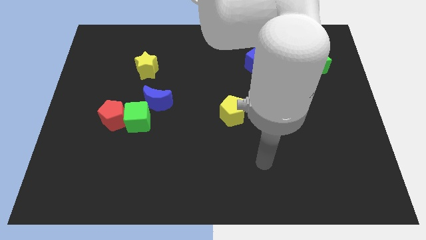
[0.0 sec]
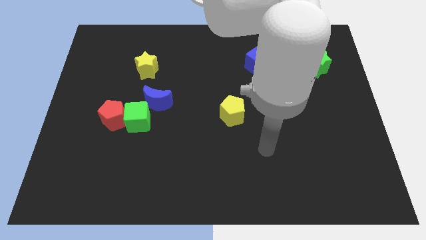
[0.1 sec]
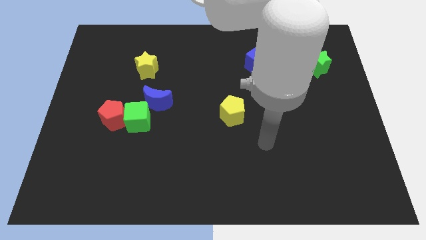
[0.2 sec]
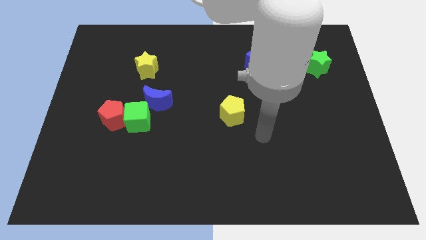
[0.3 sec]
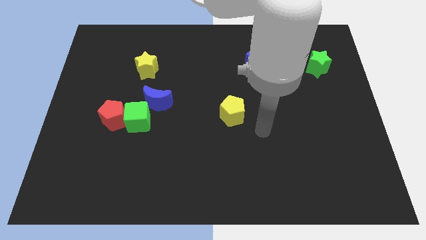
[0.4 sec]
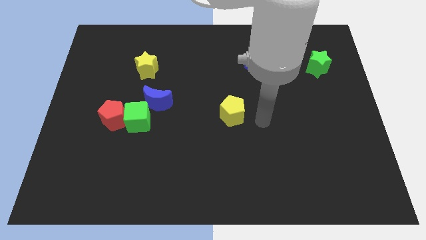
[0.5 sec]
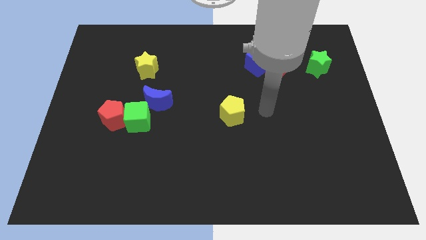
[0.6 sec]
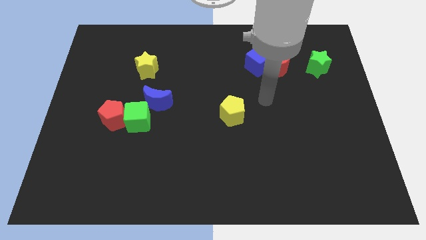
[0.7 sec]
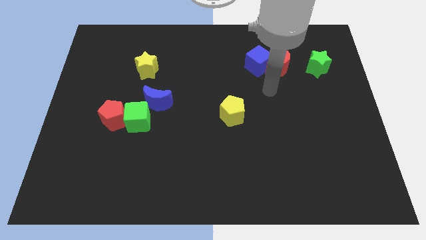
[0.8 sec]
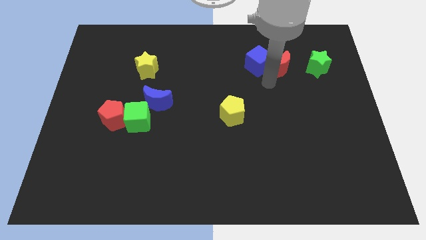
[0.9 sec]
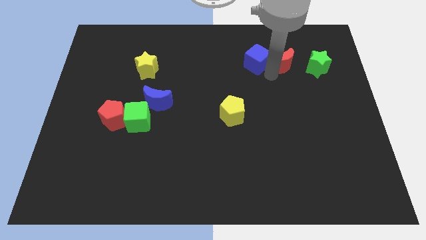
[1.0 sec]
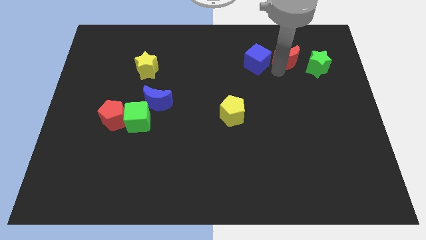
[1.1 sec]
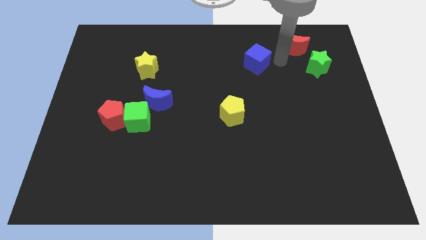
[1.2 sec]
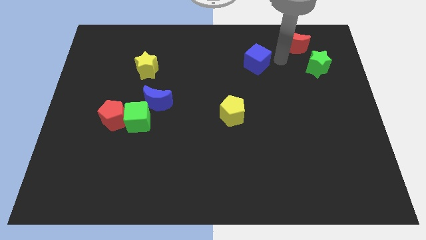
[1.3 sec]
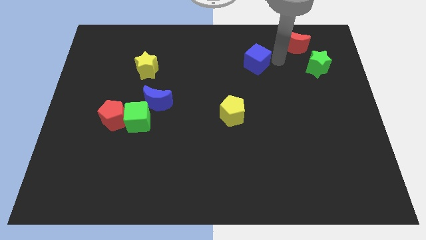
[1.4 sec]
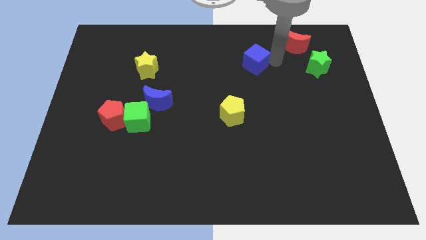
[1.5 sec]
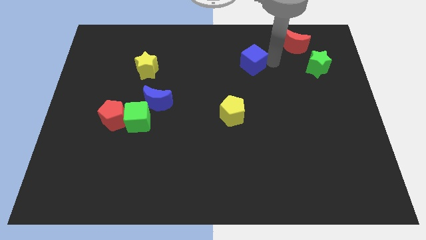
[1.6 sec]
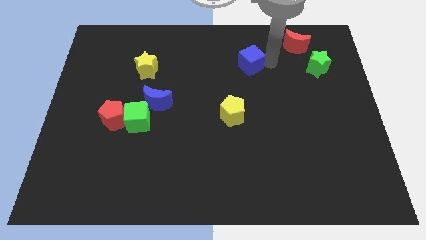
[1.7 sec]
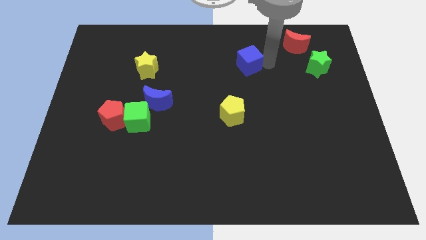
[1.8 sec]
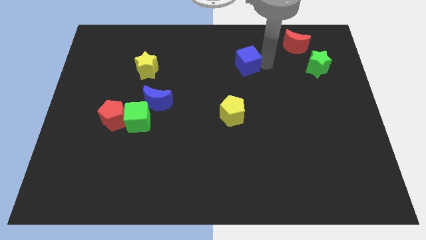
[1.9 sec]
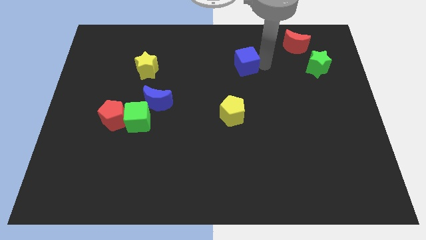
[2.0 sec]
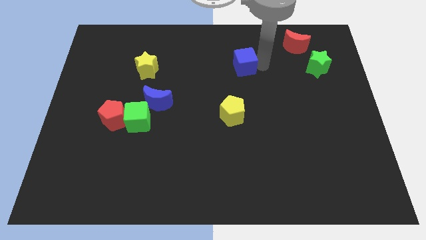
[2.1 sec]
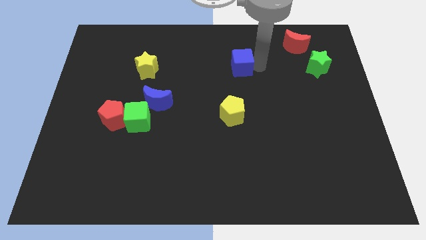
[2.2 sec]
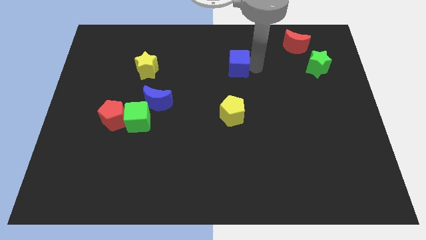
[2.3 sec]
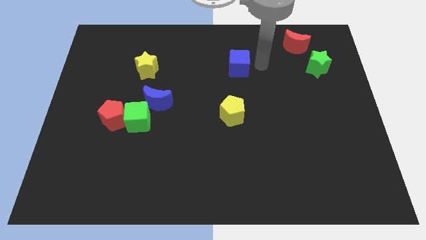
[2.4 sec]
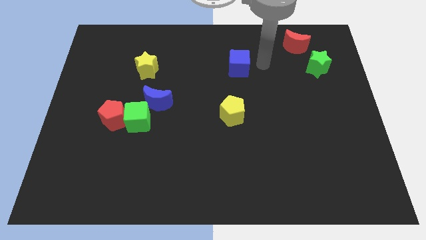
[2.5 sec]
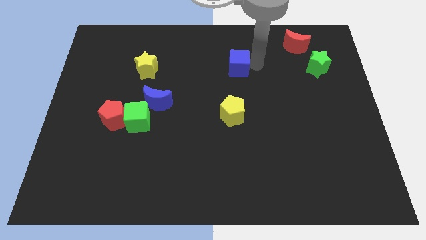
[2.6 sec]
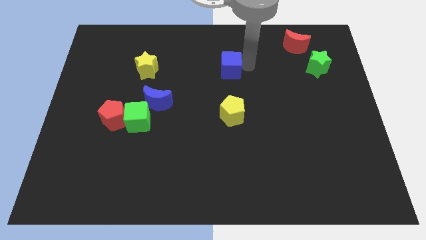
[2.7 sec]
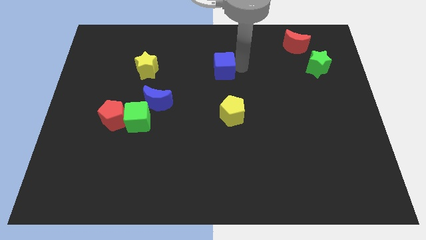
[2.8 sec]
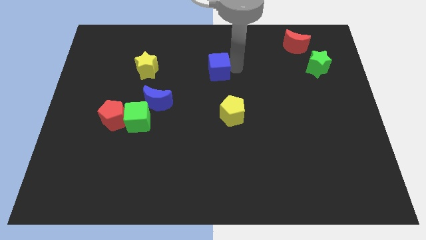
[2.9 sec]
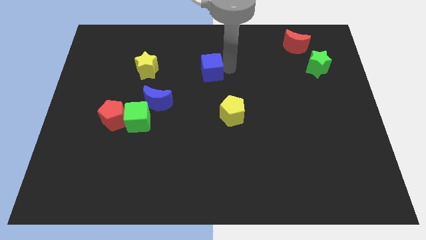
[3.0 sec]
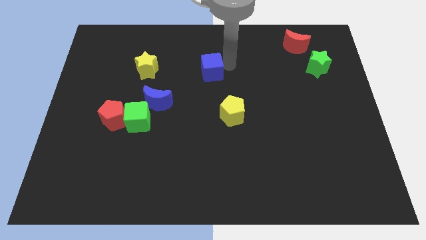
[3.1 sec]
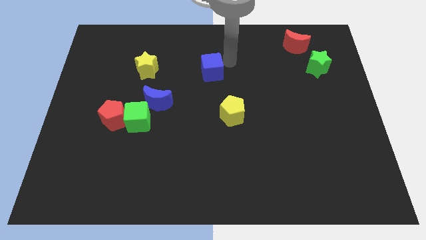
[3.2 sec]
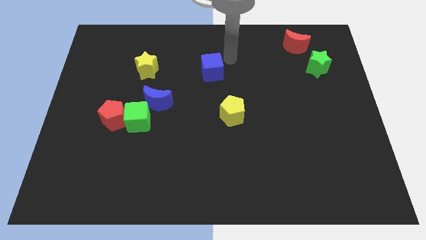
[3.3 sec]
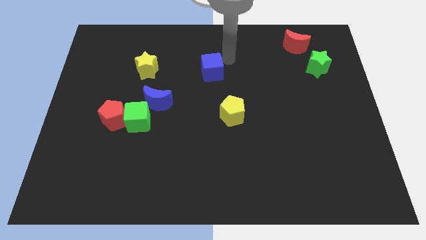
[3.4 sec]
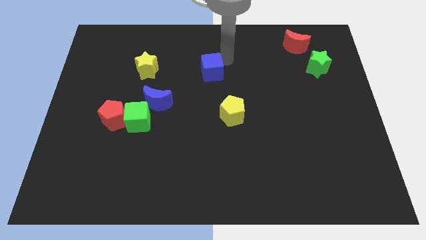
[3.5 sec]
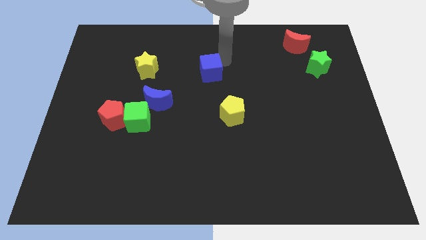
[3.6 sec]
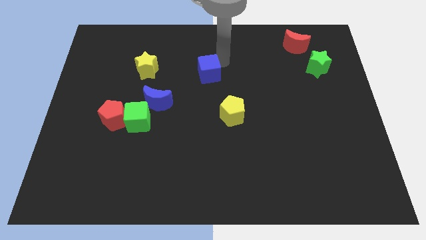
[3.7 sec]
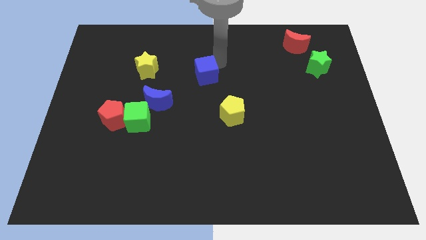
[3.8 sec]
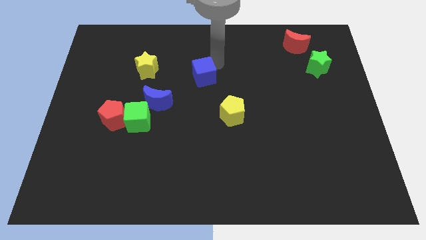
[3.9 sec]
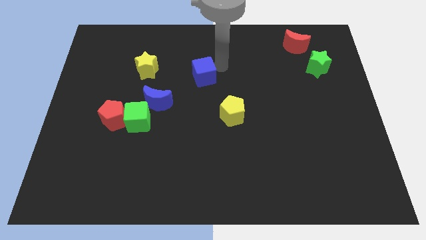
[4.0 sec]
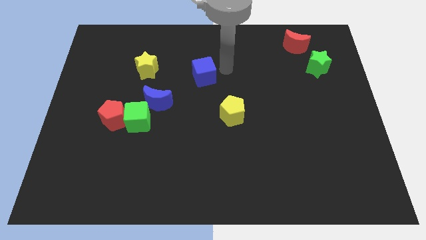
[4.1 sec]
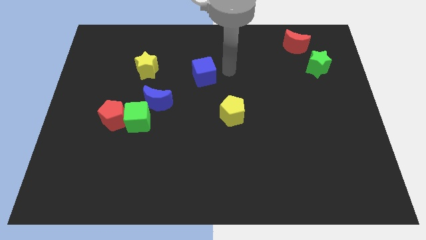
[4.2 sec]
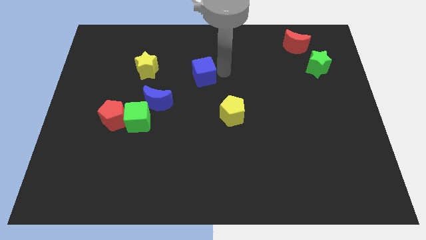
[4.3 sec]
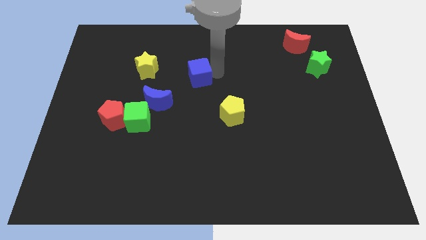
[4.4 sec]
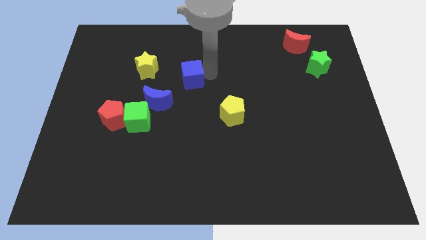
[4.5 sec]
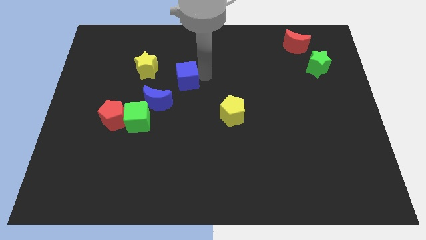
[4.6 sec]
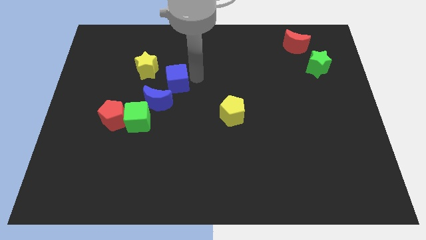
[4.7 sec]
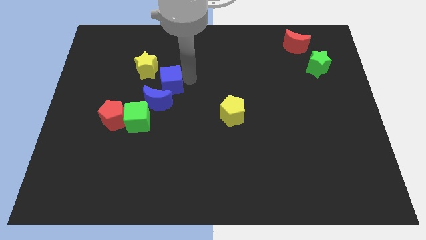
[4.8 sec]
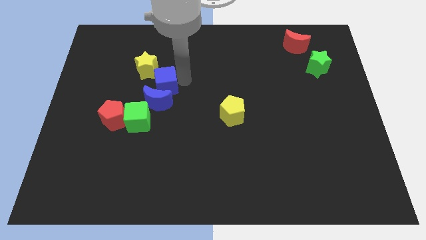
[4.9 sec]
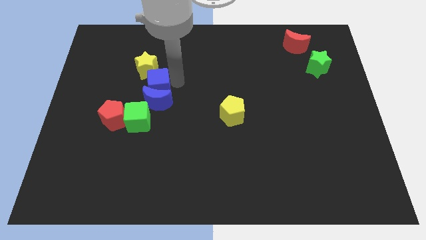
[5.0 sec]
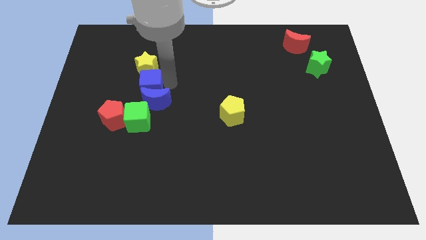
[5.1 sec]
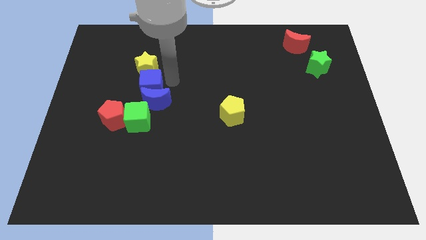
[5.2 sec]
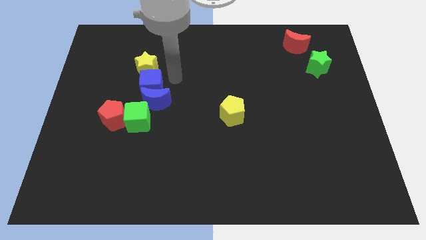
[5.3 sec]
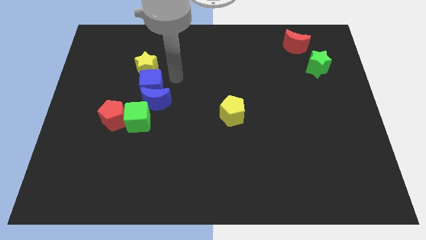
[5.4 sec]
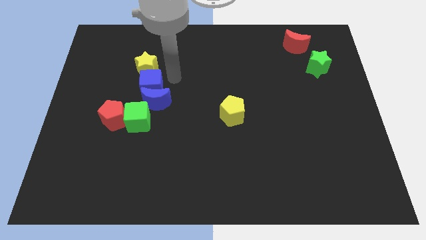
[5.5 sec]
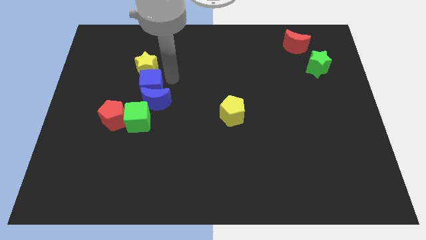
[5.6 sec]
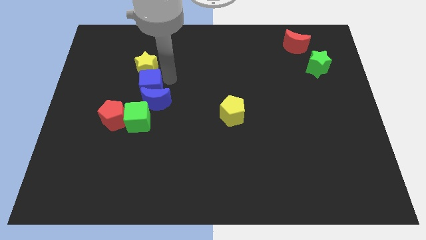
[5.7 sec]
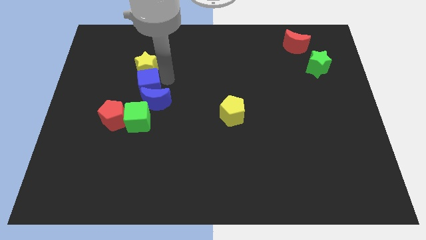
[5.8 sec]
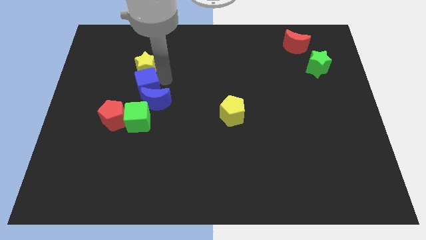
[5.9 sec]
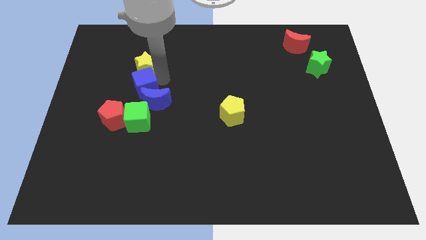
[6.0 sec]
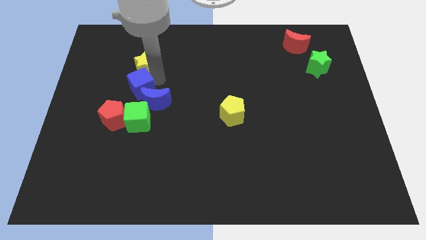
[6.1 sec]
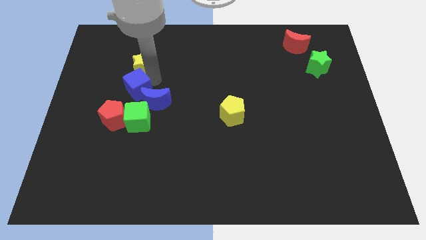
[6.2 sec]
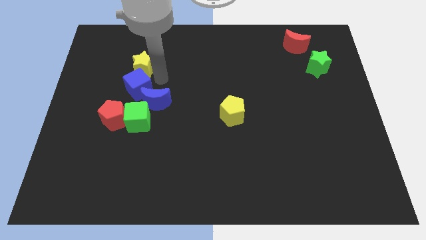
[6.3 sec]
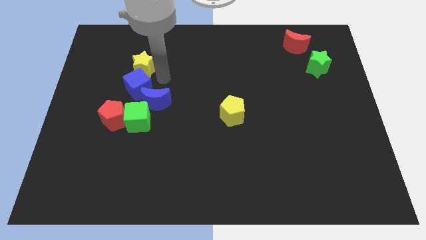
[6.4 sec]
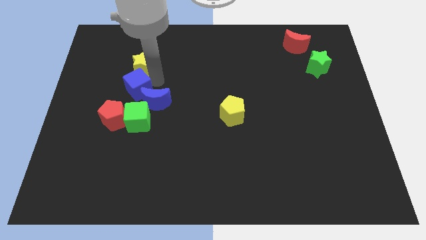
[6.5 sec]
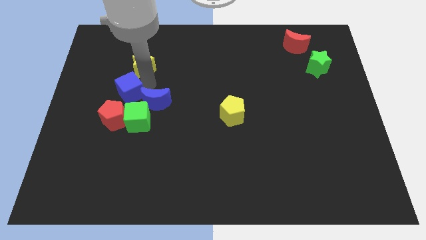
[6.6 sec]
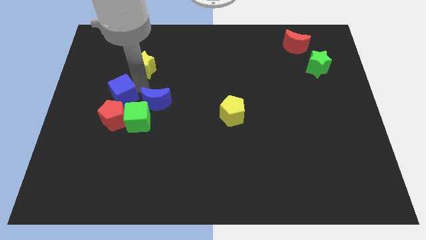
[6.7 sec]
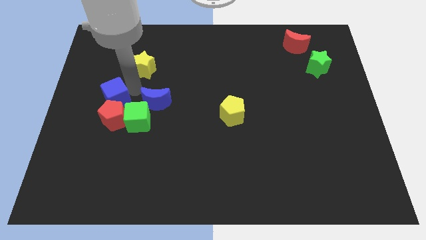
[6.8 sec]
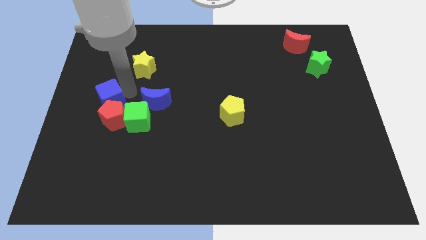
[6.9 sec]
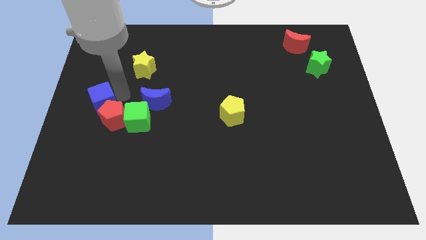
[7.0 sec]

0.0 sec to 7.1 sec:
move the blue cube to the left side of the board
